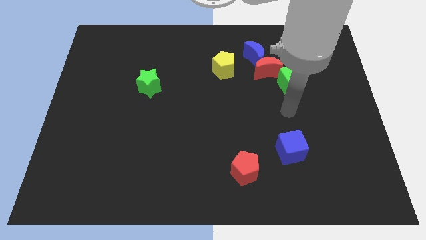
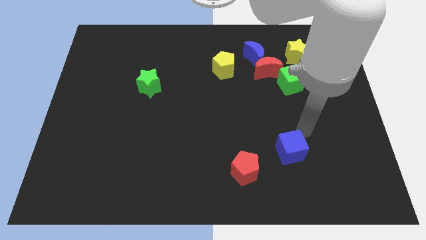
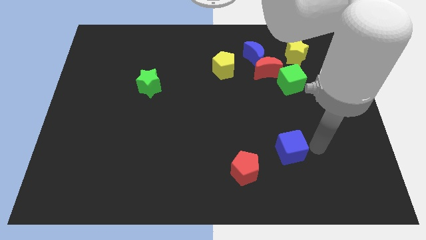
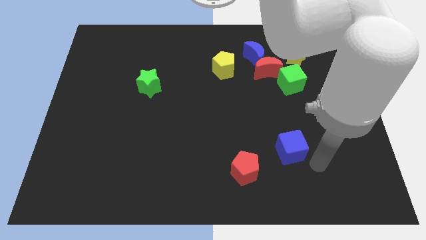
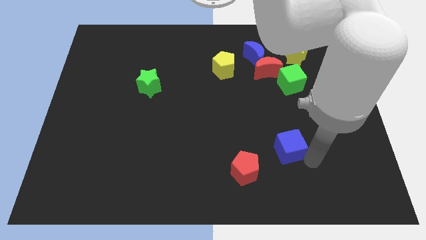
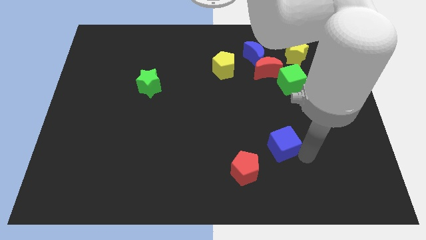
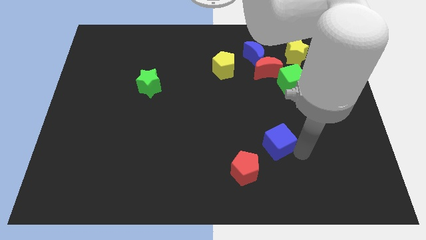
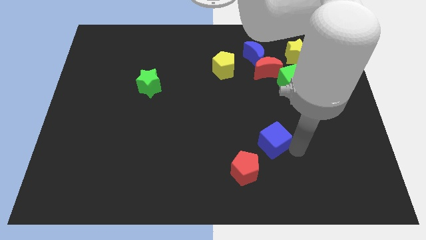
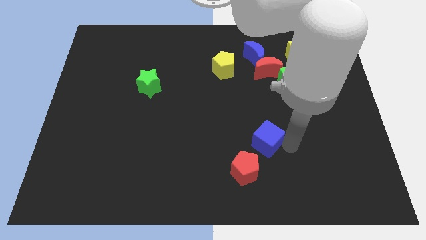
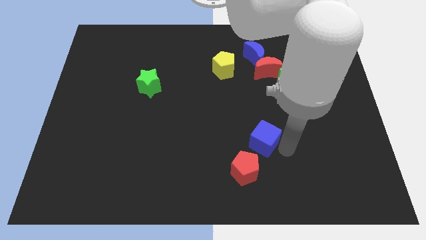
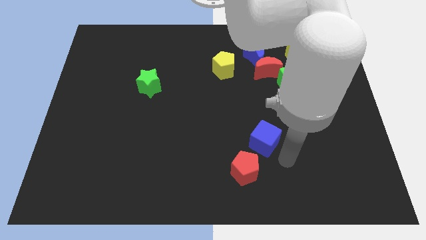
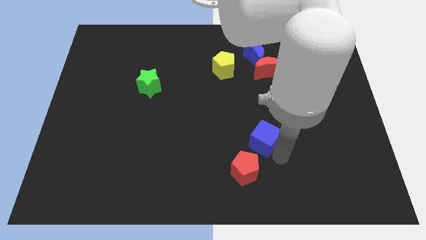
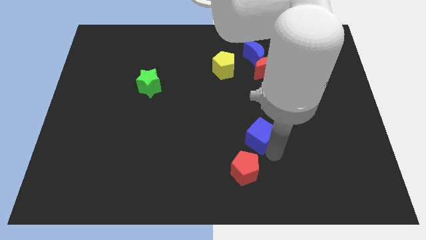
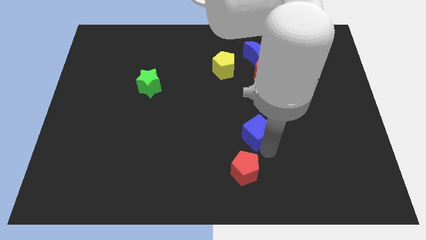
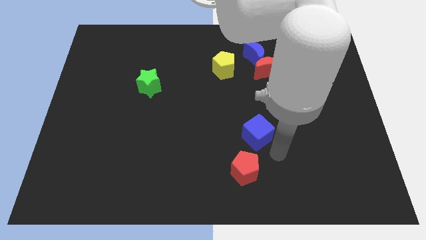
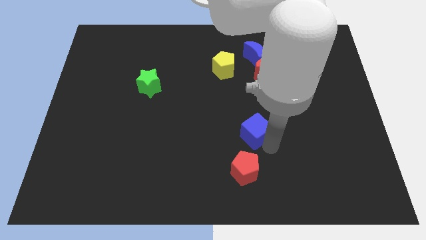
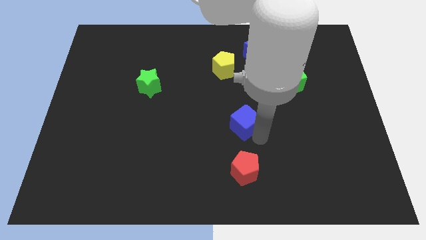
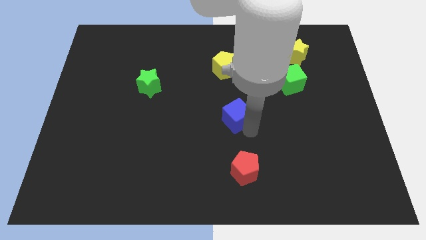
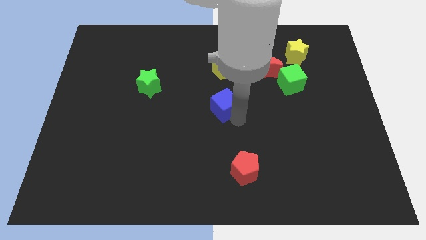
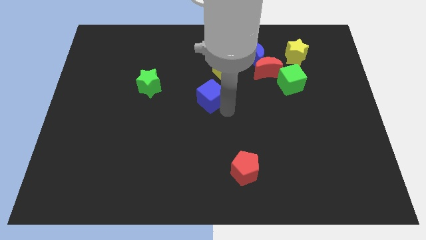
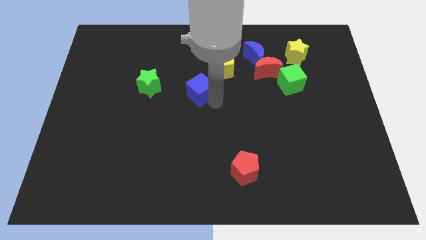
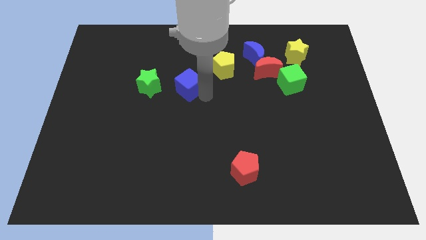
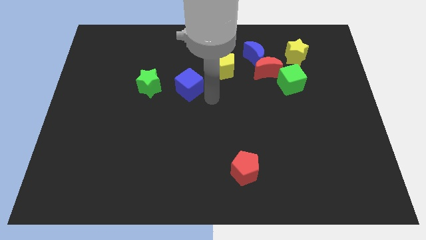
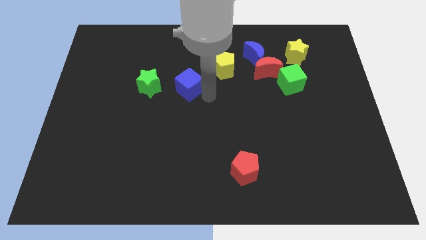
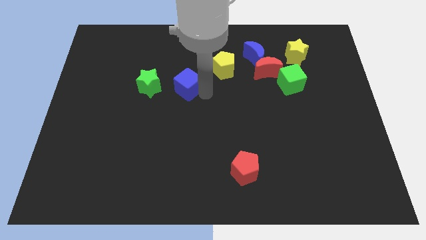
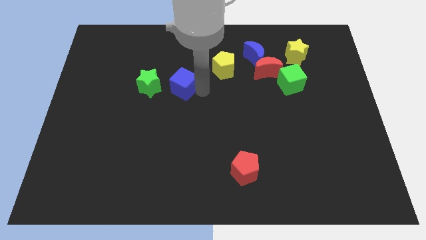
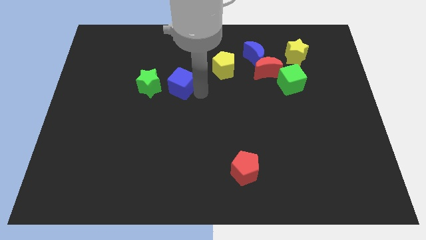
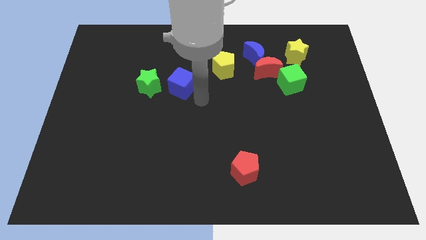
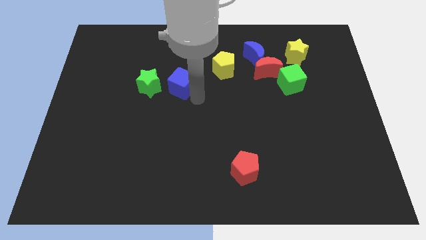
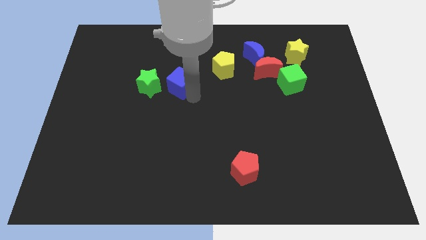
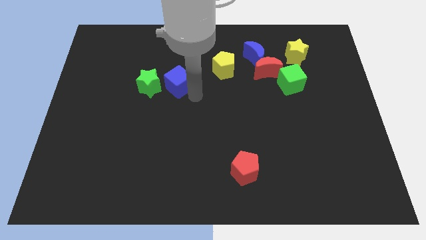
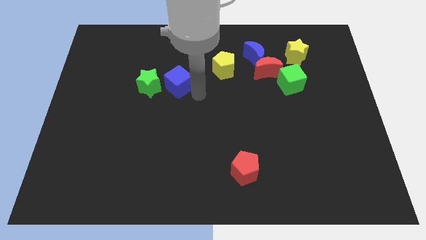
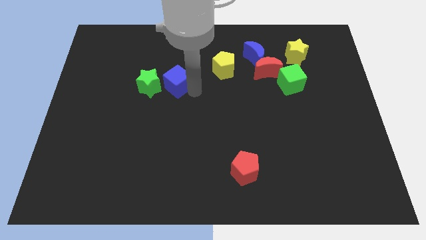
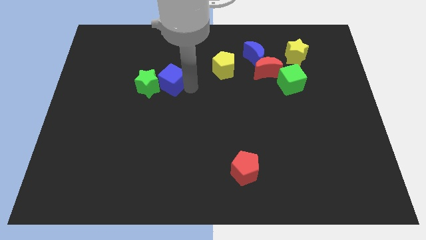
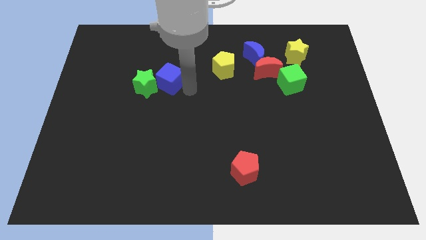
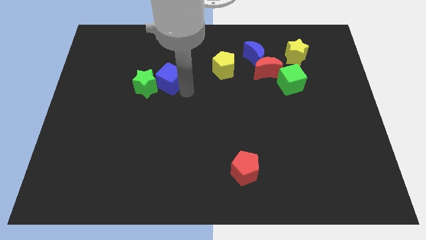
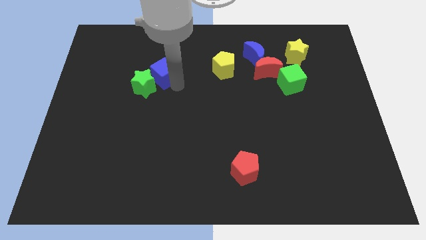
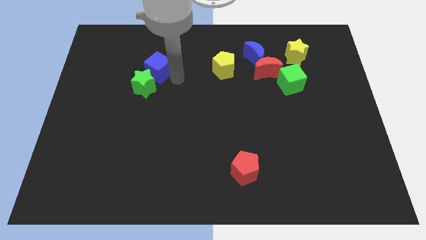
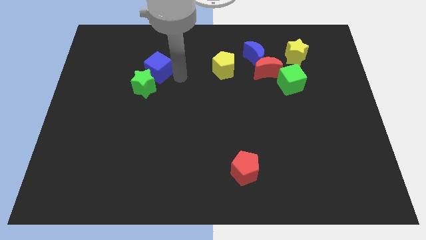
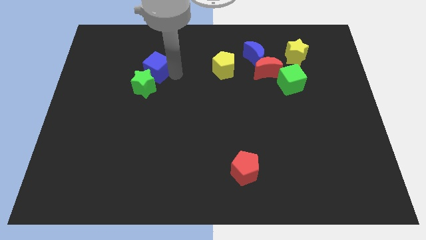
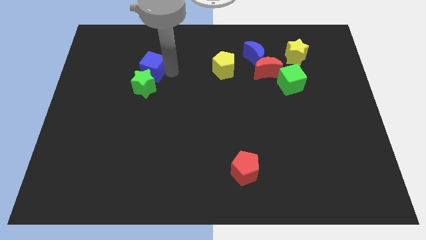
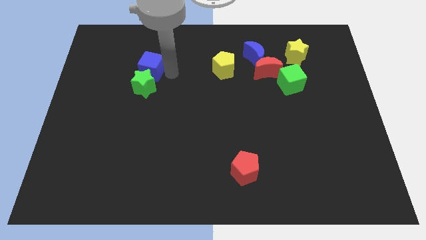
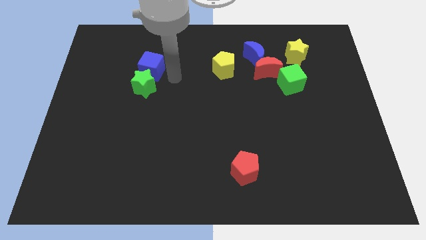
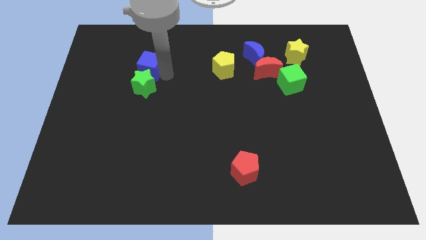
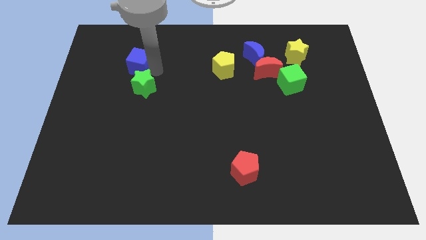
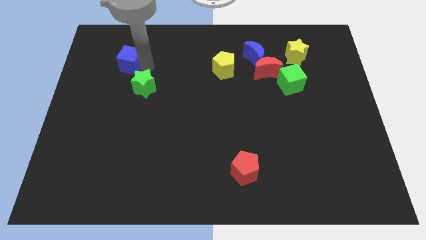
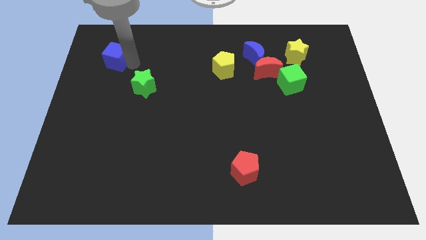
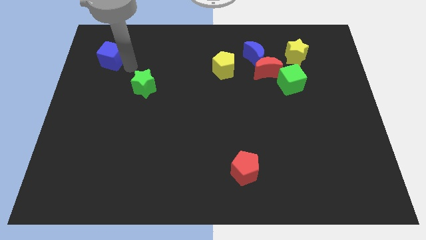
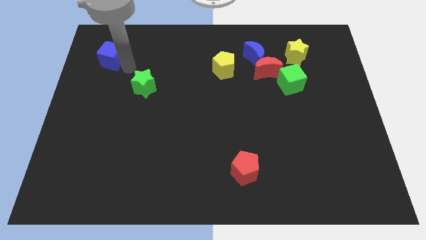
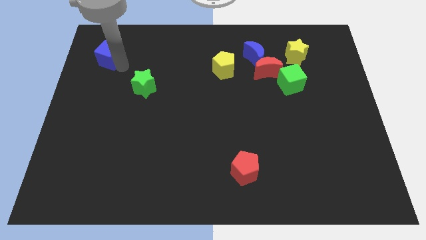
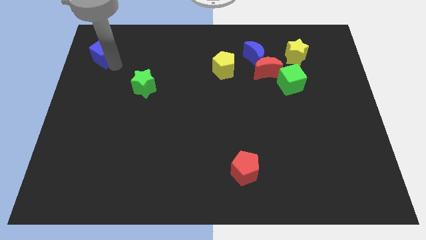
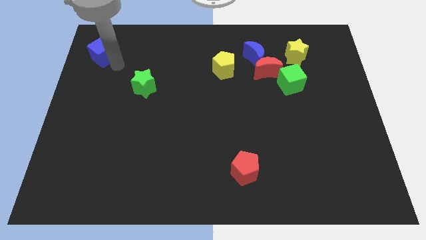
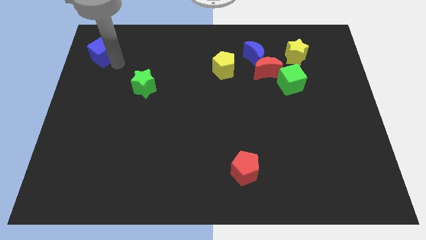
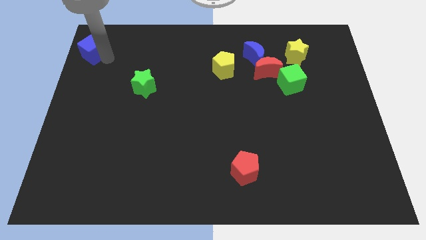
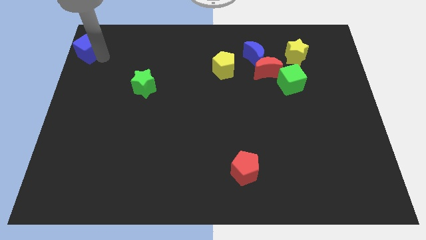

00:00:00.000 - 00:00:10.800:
slide the blue cube to the top left

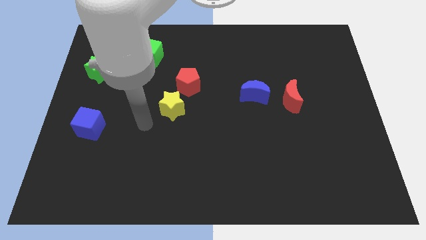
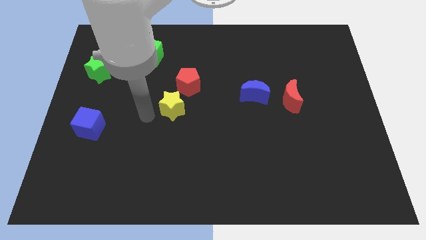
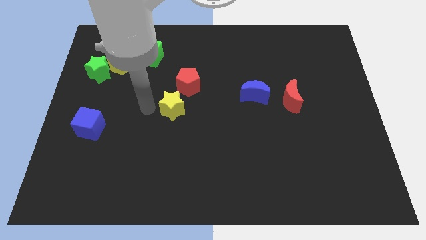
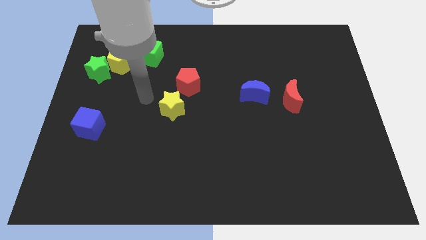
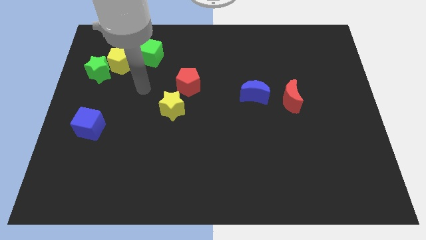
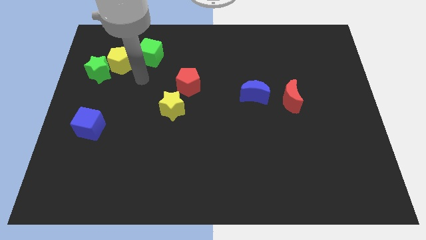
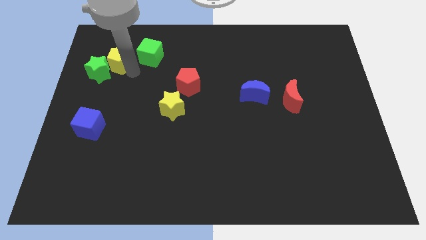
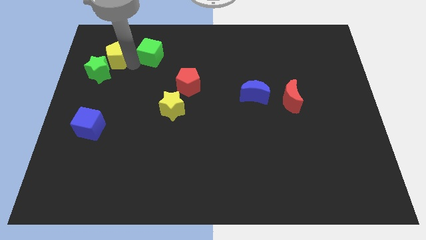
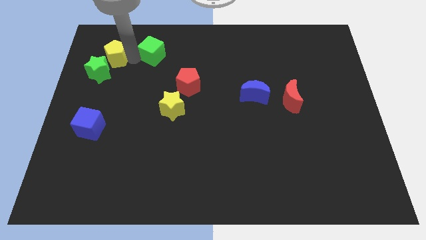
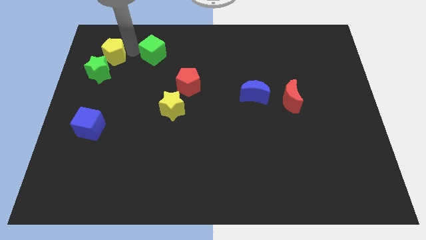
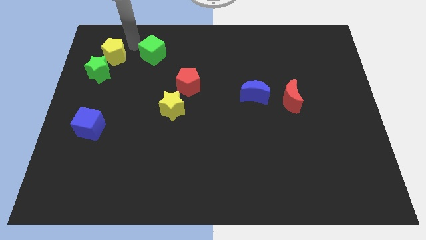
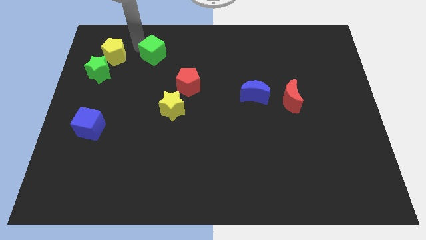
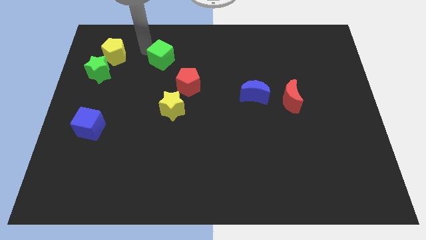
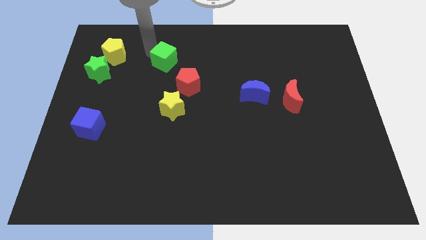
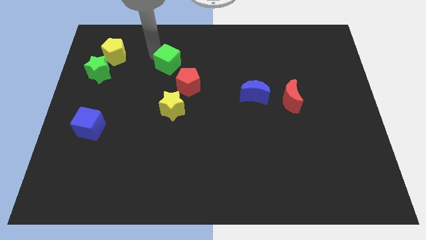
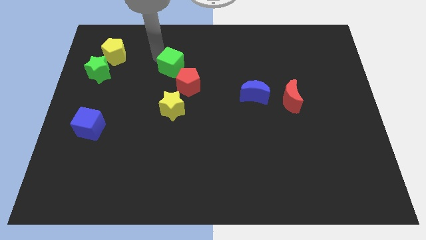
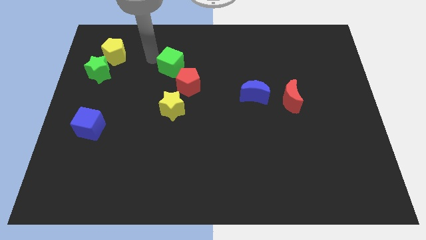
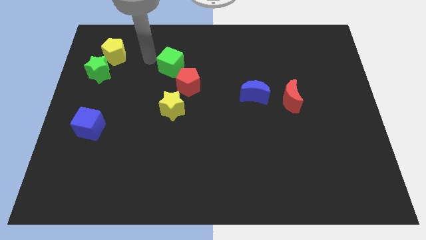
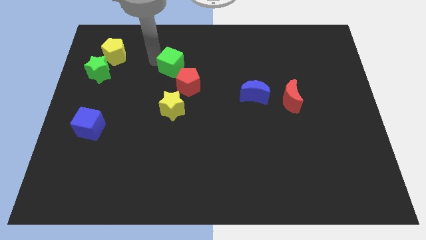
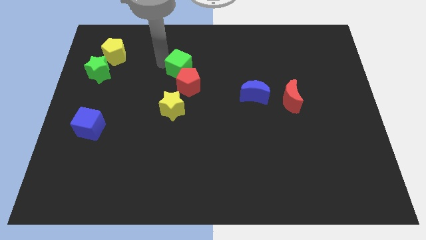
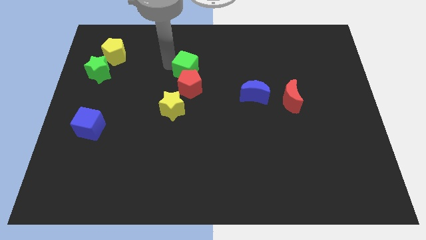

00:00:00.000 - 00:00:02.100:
slide the green cube to the center of the board
